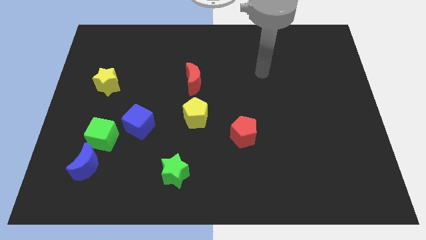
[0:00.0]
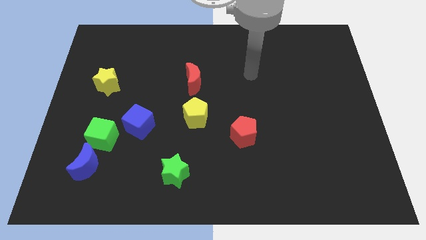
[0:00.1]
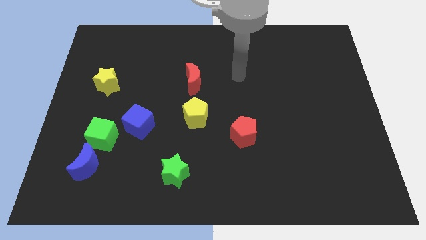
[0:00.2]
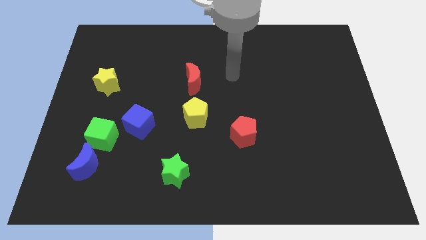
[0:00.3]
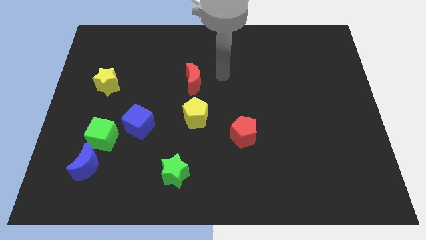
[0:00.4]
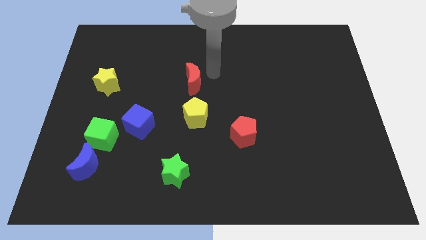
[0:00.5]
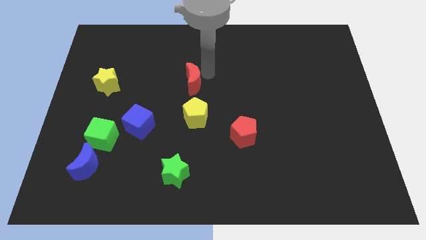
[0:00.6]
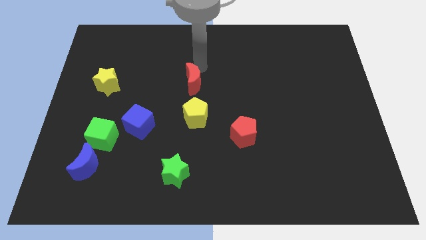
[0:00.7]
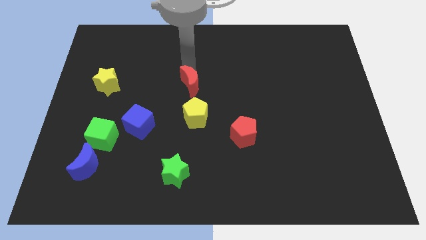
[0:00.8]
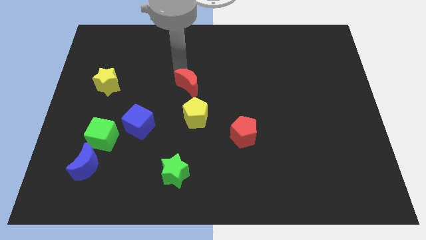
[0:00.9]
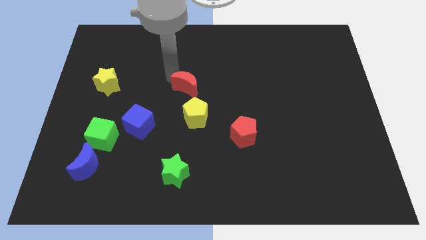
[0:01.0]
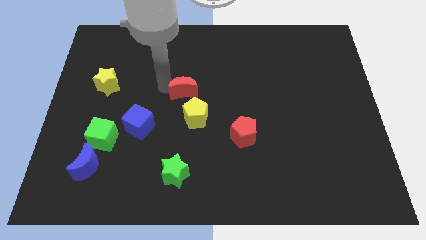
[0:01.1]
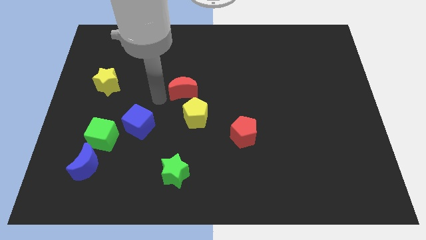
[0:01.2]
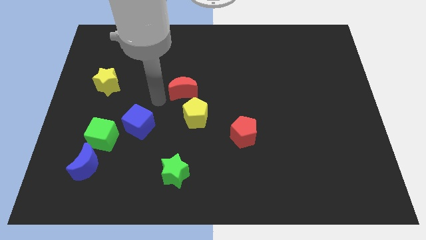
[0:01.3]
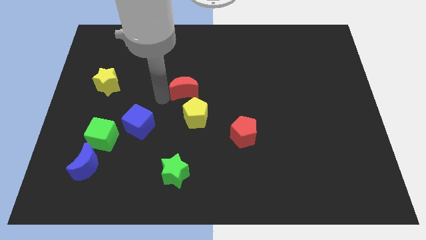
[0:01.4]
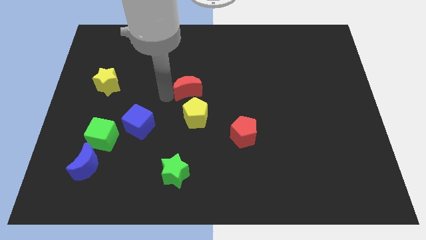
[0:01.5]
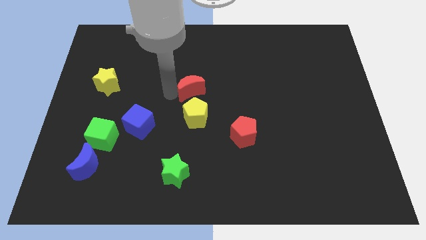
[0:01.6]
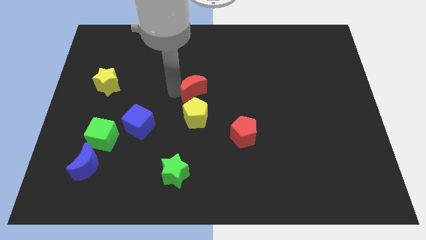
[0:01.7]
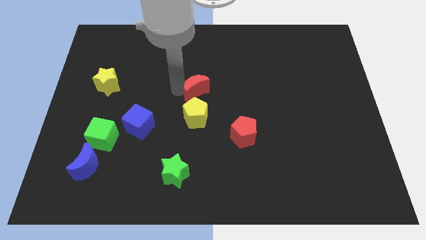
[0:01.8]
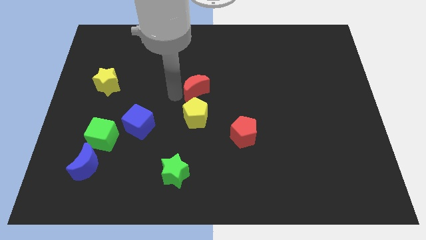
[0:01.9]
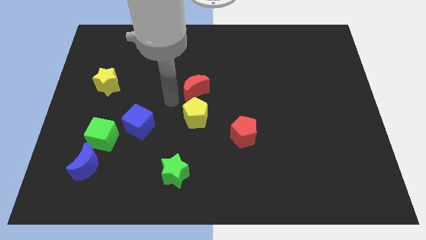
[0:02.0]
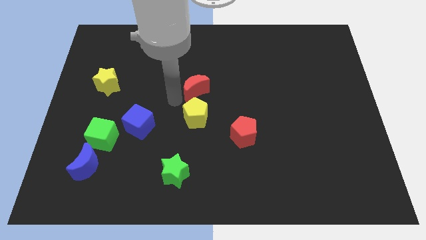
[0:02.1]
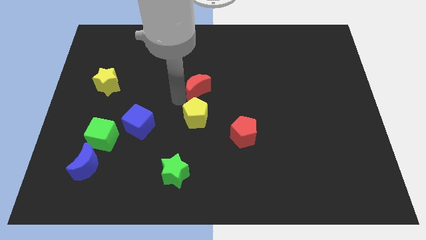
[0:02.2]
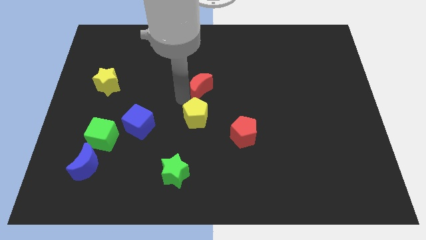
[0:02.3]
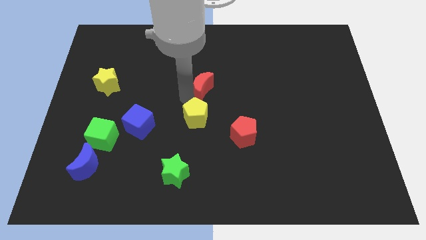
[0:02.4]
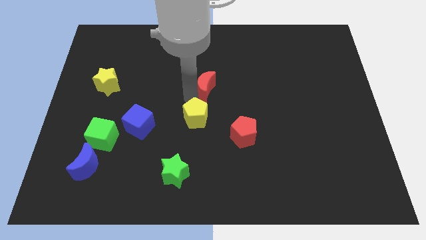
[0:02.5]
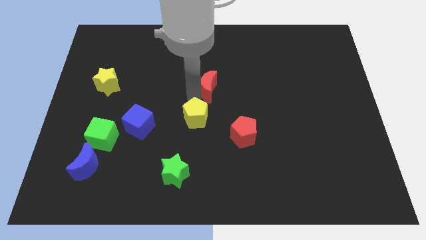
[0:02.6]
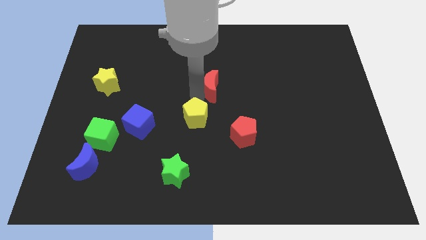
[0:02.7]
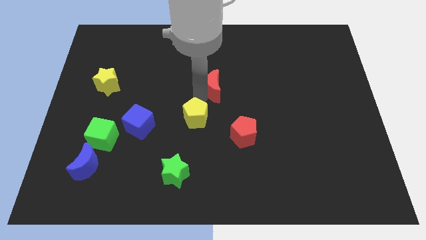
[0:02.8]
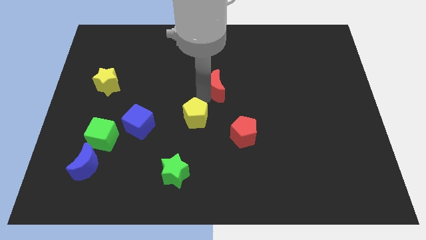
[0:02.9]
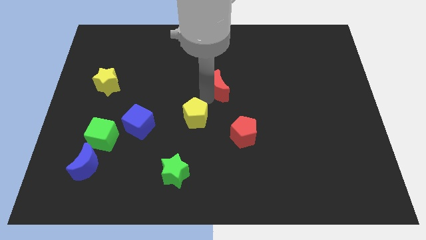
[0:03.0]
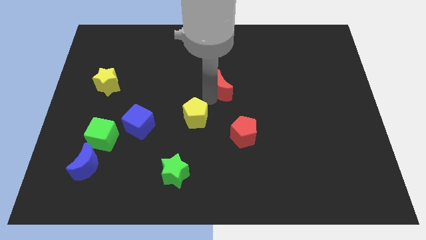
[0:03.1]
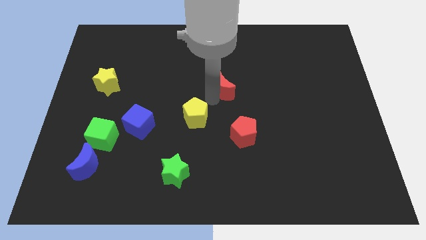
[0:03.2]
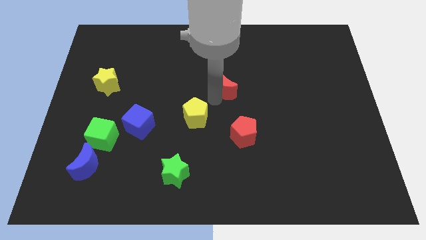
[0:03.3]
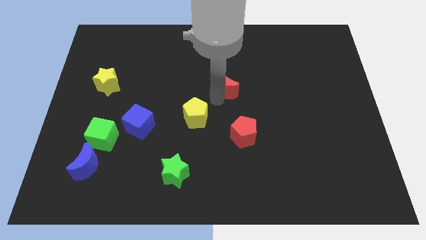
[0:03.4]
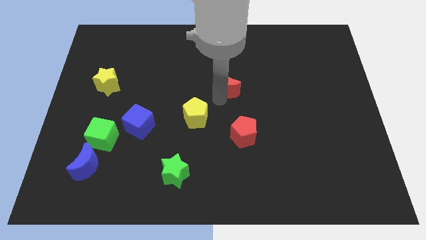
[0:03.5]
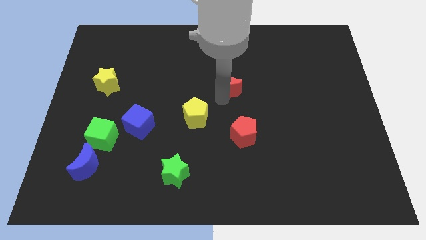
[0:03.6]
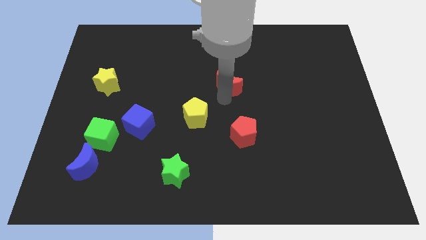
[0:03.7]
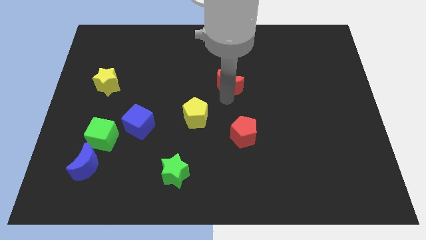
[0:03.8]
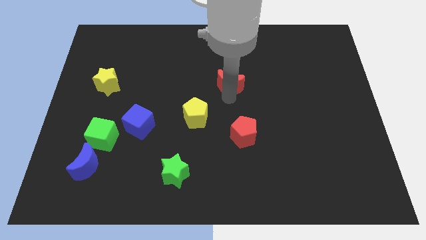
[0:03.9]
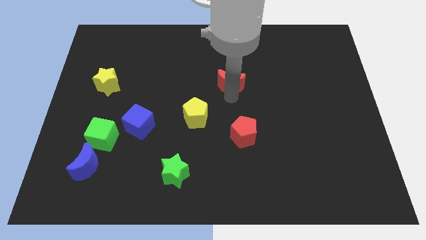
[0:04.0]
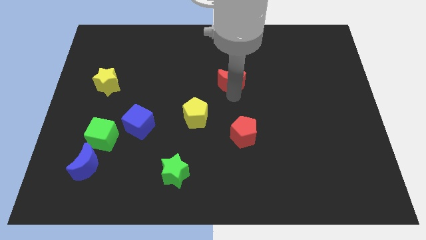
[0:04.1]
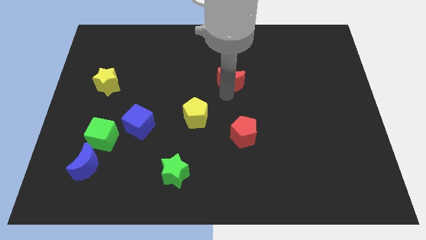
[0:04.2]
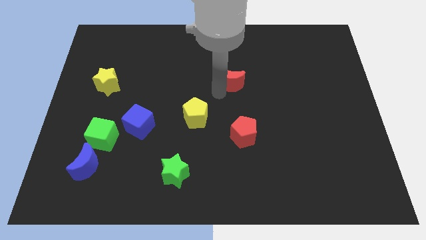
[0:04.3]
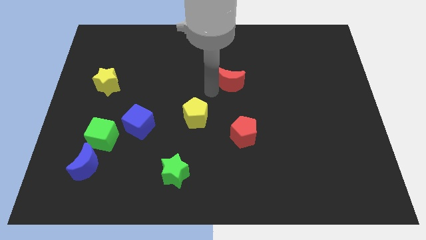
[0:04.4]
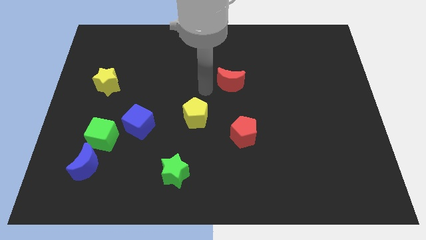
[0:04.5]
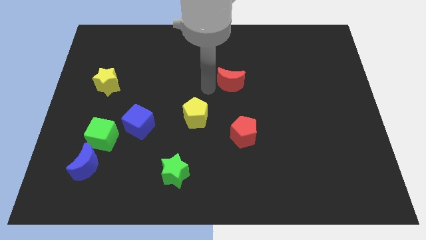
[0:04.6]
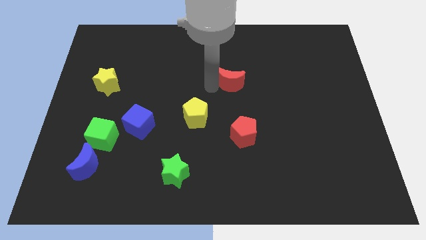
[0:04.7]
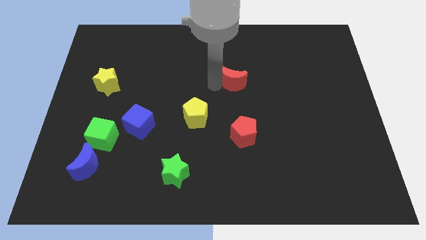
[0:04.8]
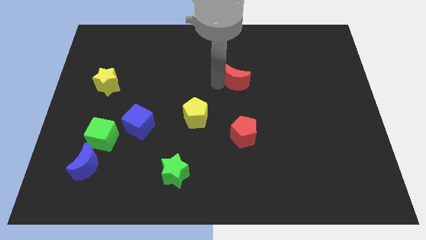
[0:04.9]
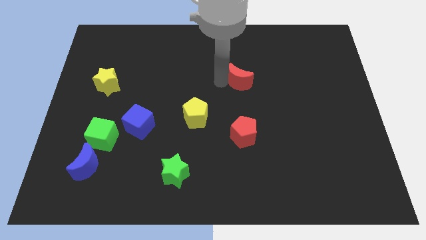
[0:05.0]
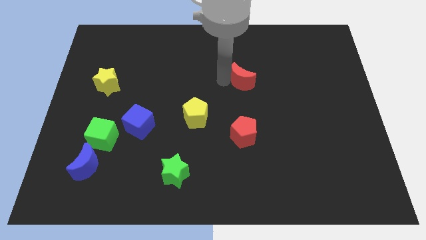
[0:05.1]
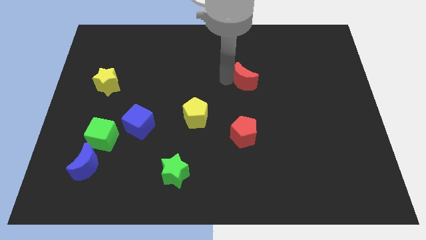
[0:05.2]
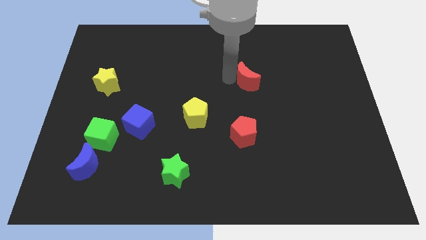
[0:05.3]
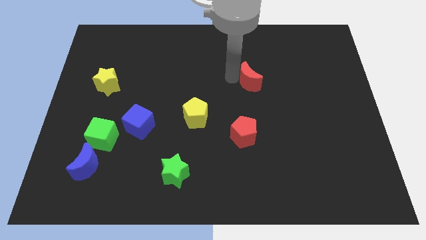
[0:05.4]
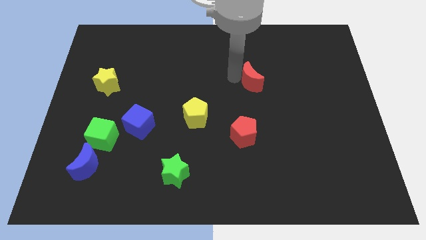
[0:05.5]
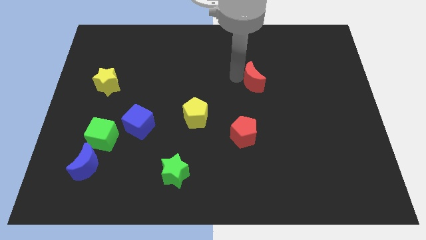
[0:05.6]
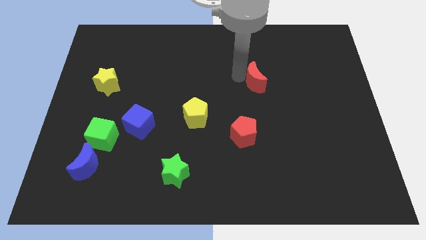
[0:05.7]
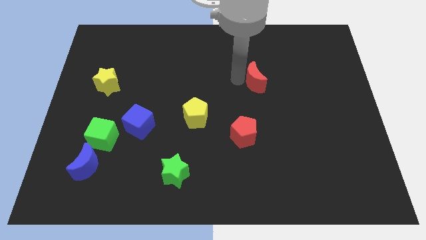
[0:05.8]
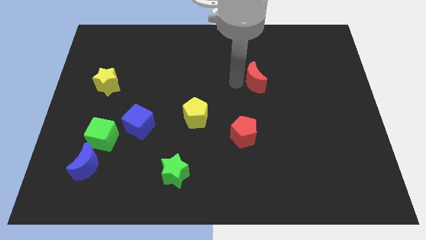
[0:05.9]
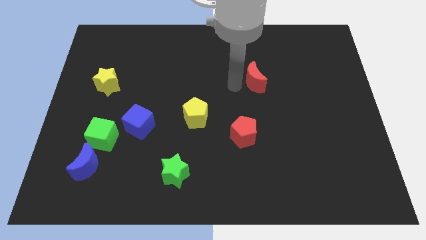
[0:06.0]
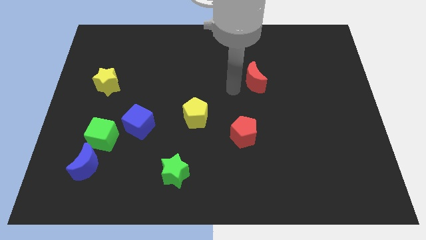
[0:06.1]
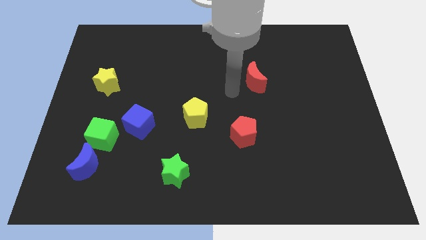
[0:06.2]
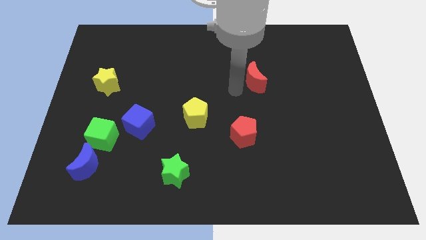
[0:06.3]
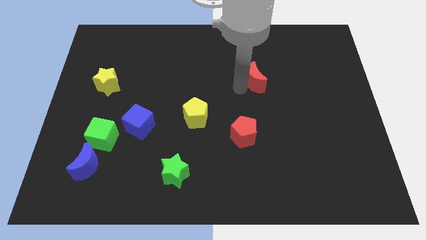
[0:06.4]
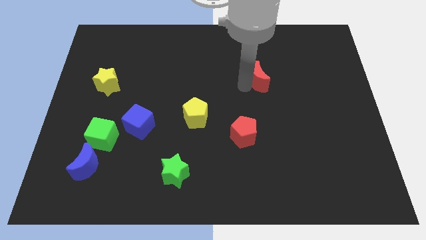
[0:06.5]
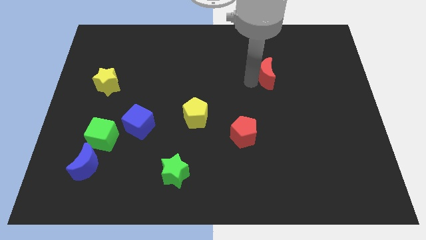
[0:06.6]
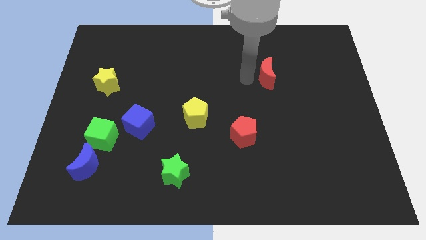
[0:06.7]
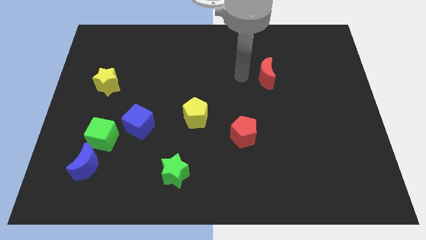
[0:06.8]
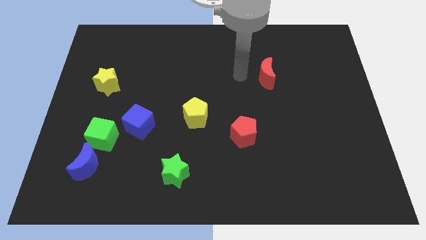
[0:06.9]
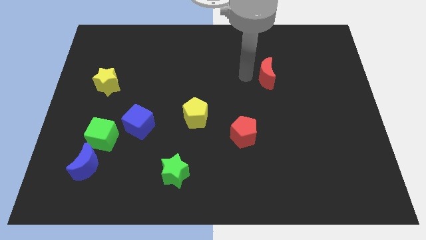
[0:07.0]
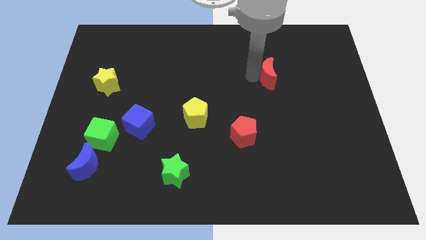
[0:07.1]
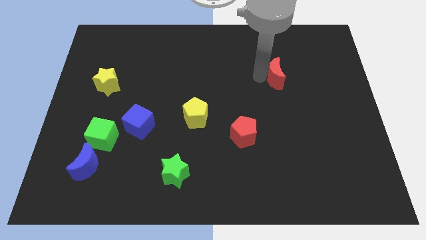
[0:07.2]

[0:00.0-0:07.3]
slide the red moon right

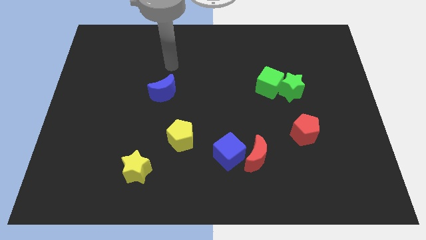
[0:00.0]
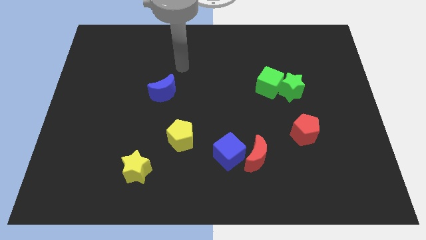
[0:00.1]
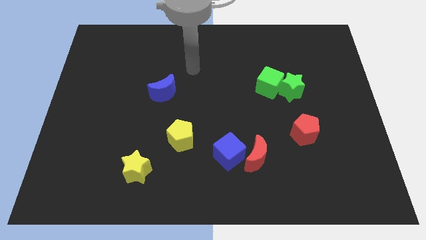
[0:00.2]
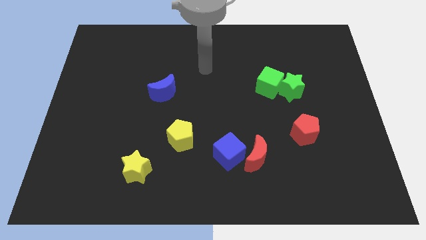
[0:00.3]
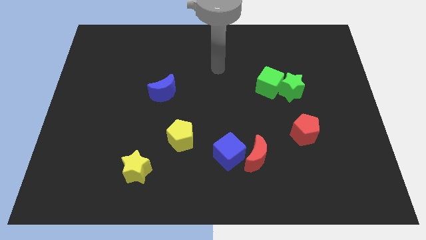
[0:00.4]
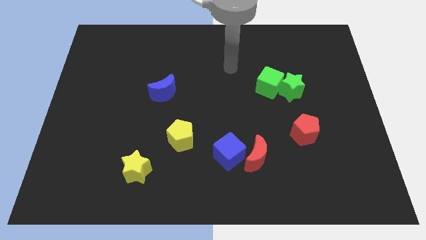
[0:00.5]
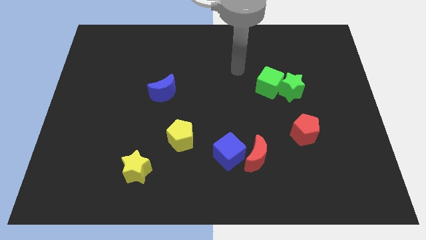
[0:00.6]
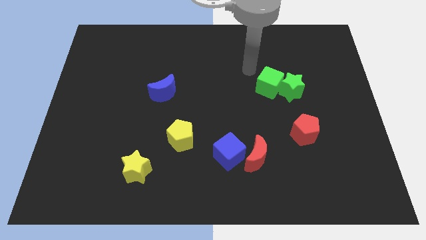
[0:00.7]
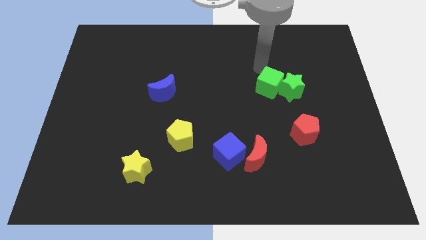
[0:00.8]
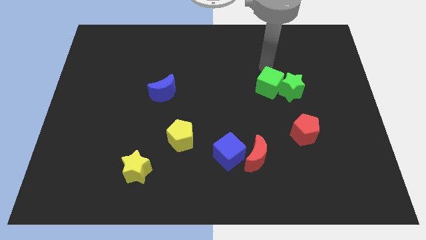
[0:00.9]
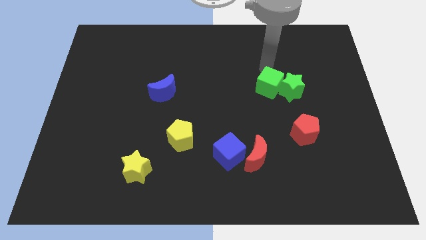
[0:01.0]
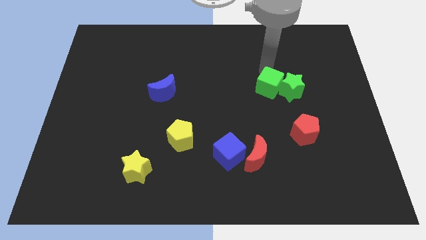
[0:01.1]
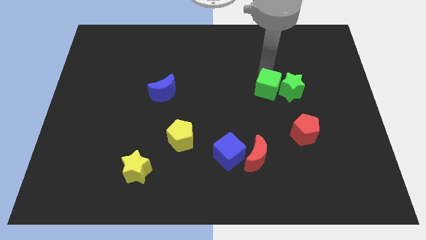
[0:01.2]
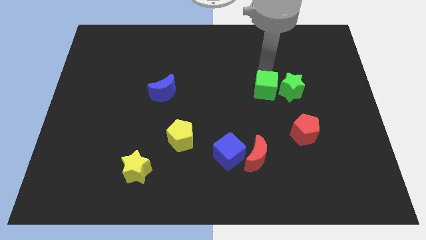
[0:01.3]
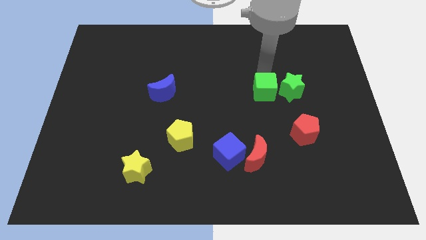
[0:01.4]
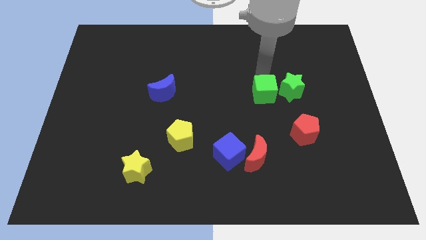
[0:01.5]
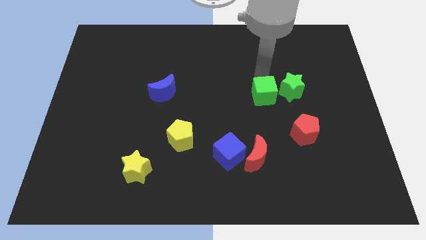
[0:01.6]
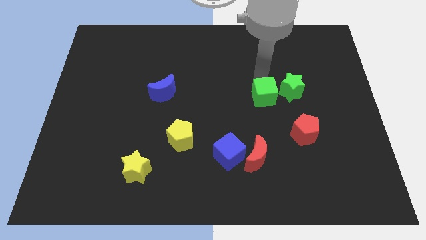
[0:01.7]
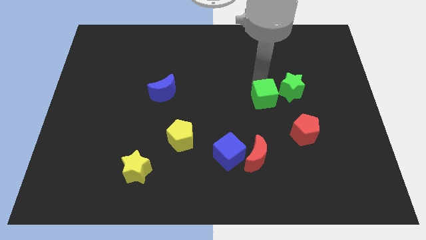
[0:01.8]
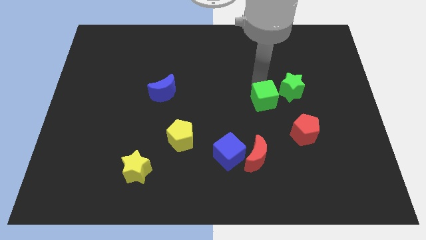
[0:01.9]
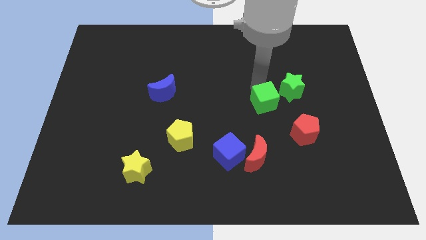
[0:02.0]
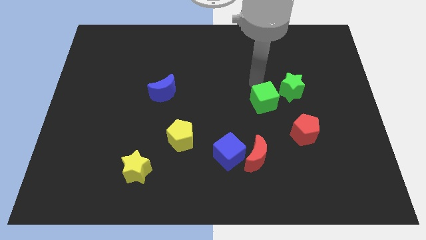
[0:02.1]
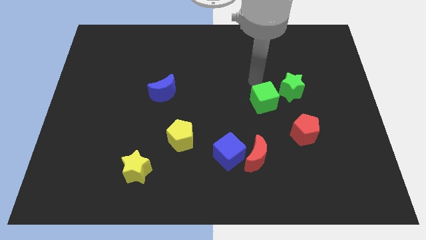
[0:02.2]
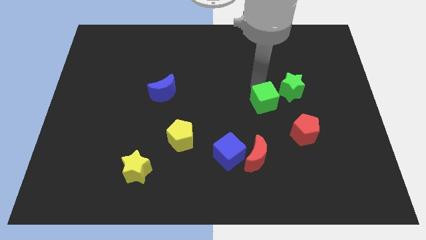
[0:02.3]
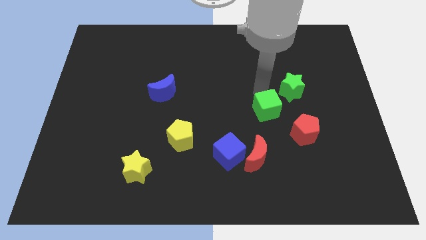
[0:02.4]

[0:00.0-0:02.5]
move the green cube a little down
